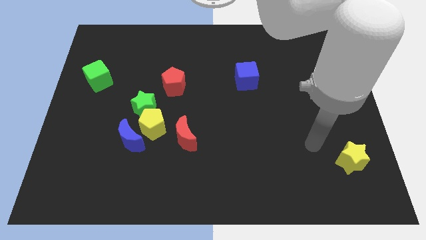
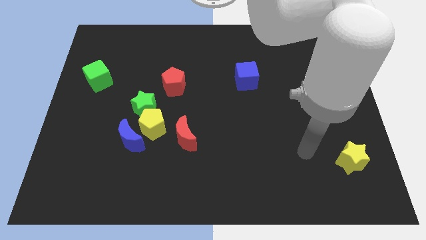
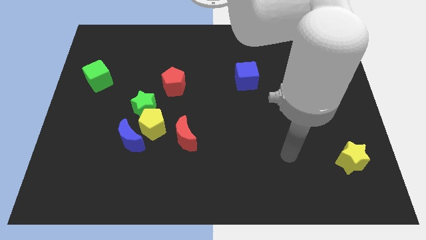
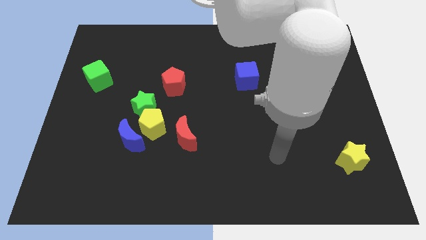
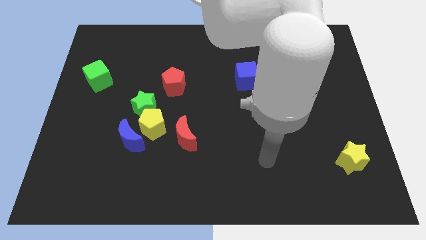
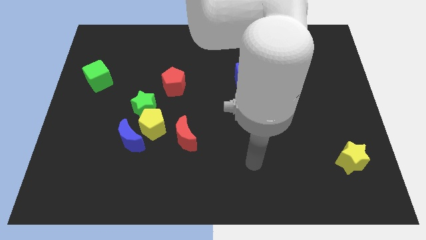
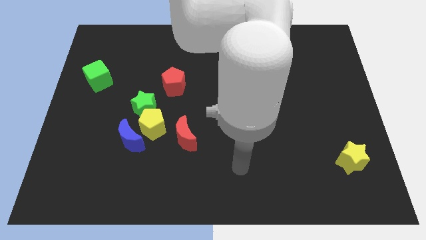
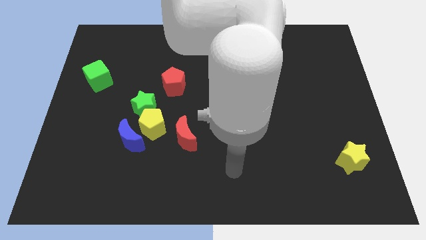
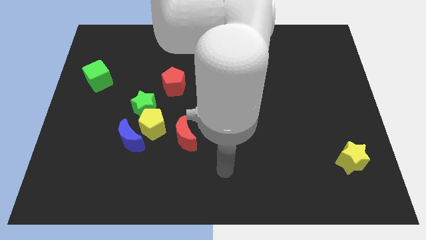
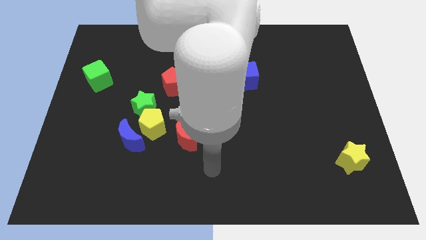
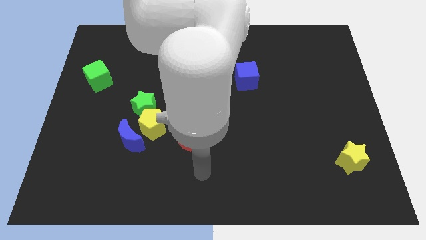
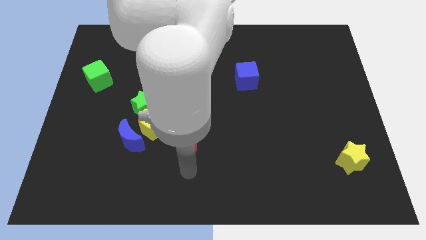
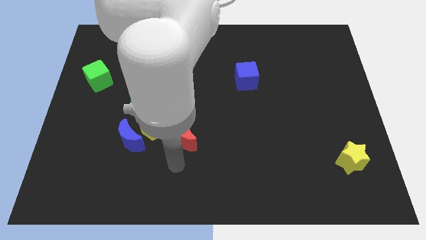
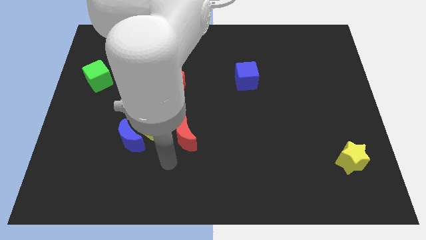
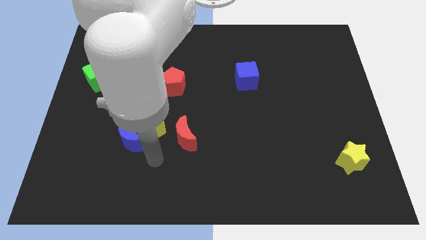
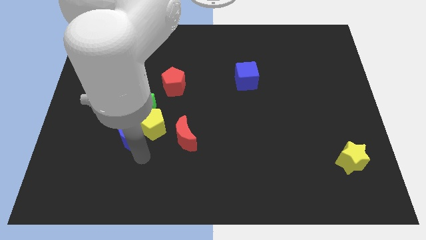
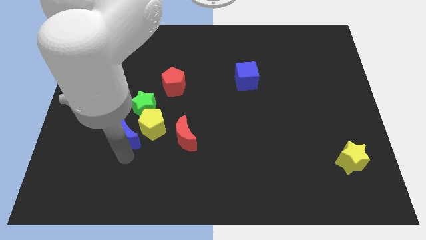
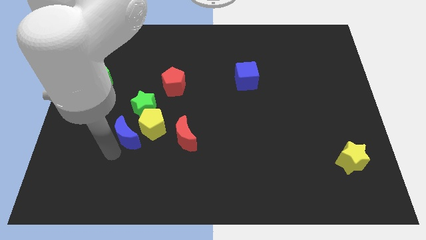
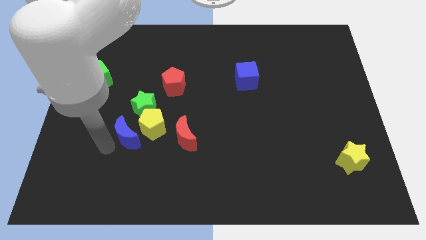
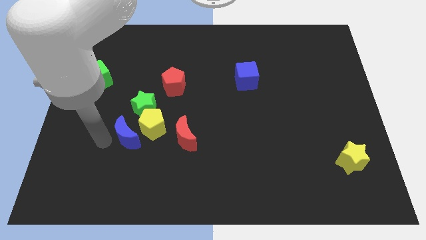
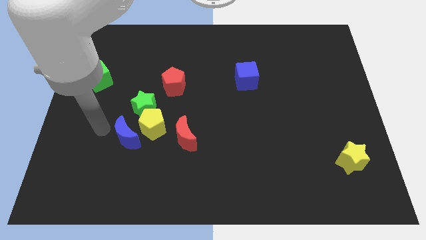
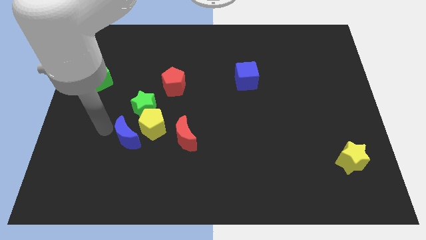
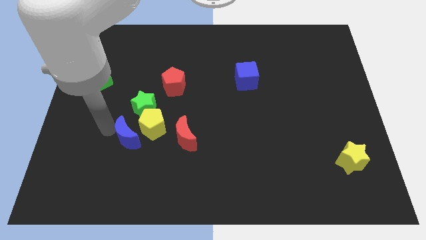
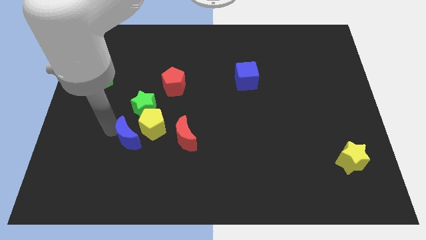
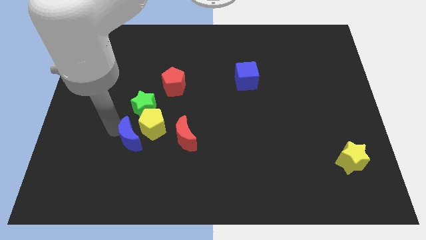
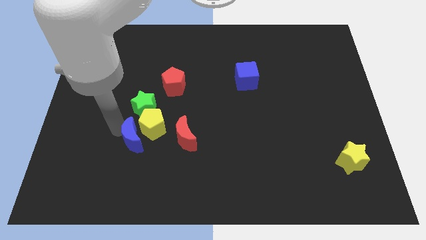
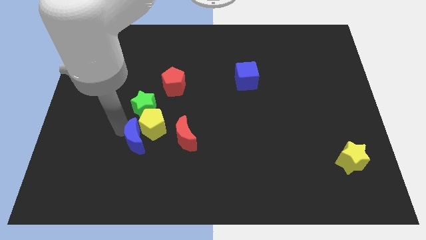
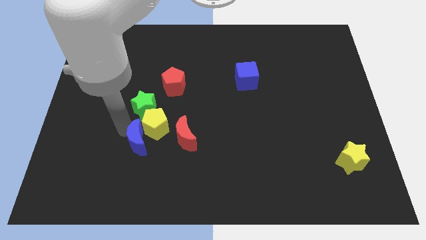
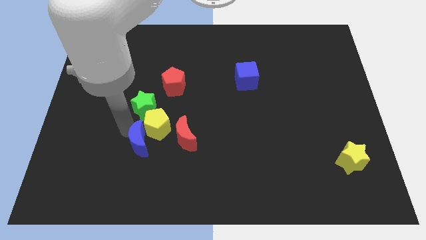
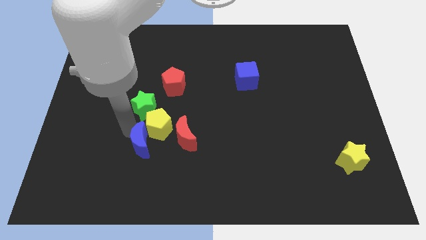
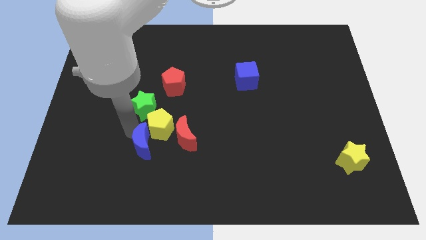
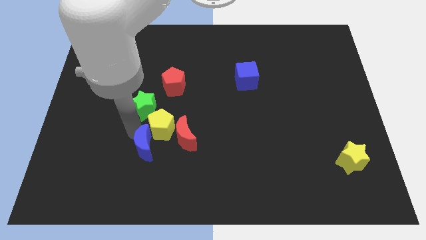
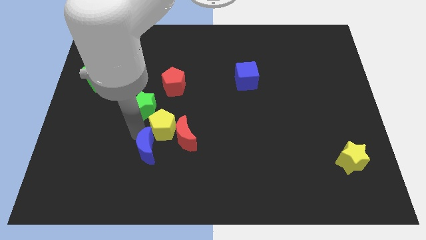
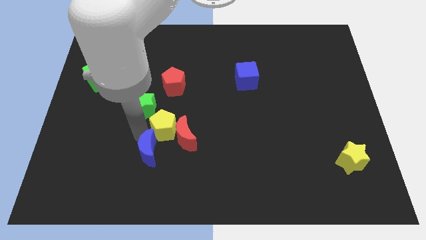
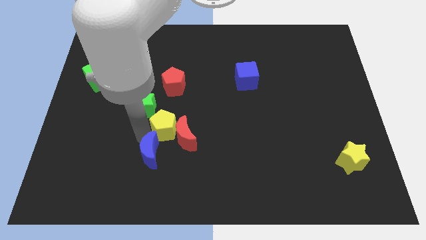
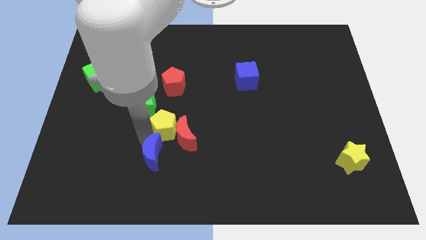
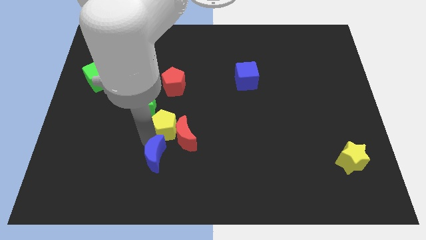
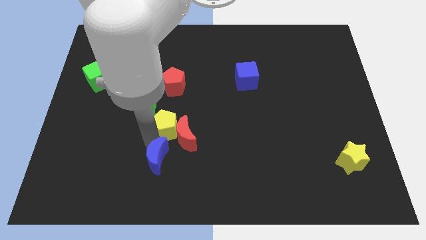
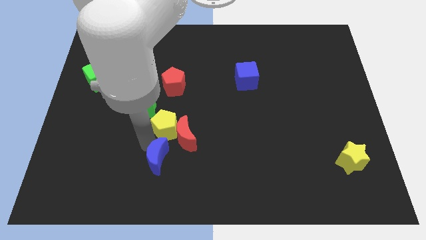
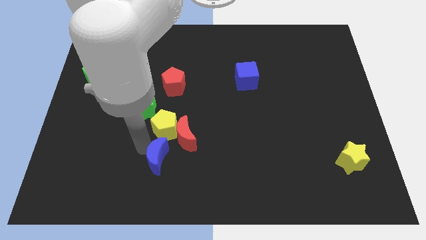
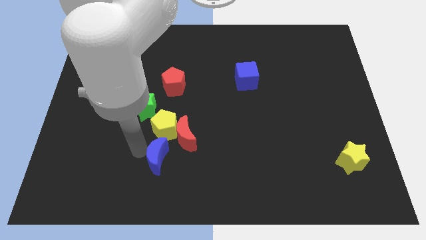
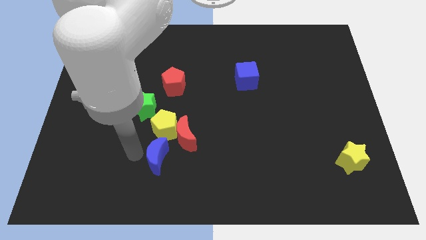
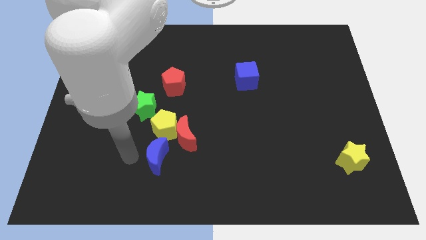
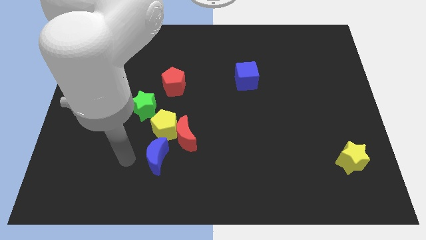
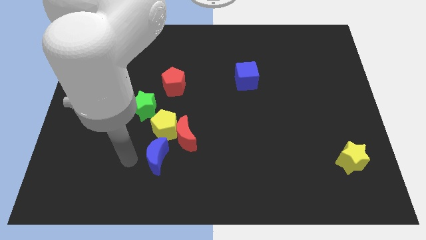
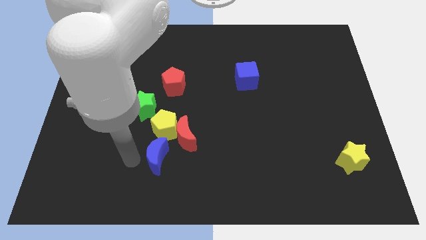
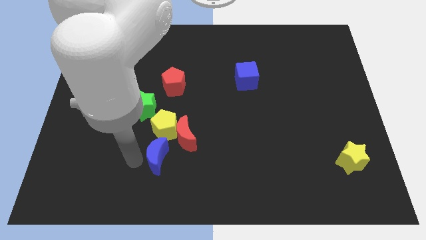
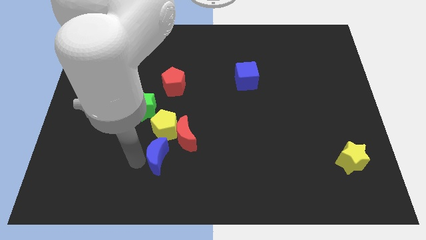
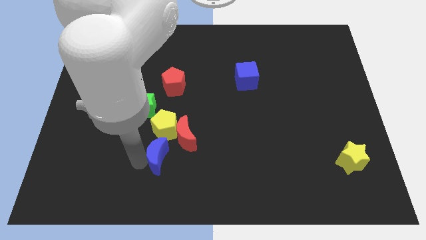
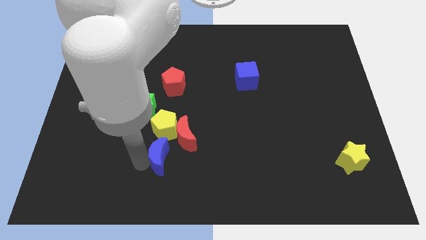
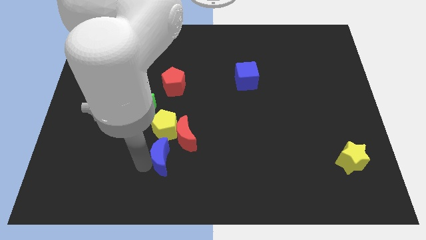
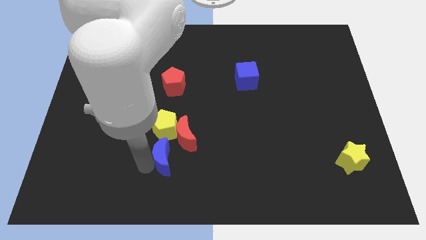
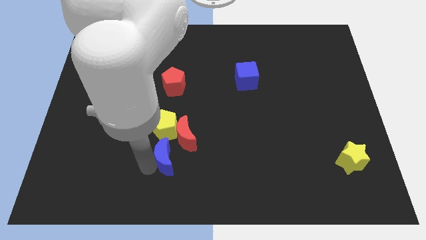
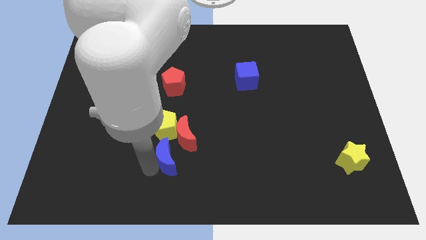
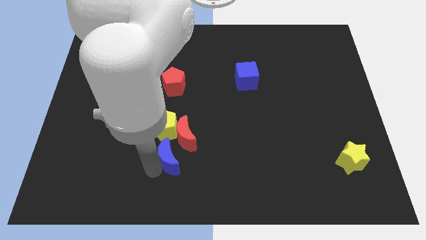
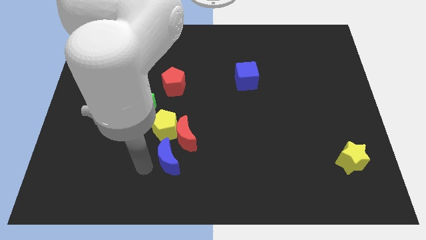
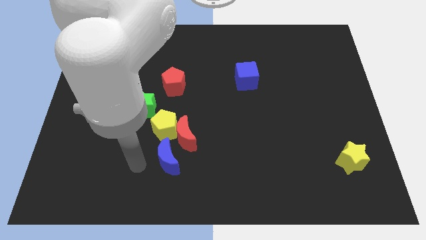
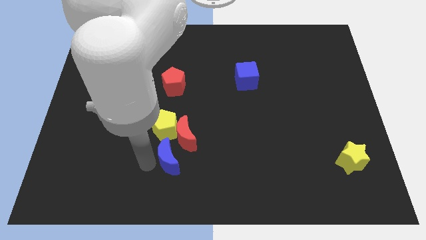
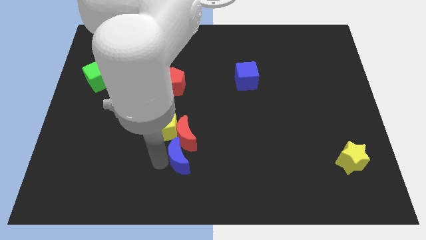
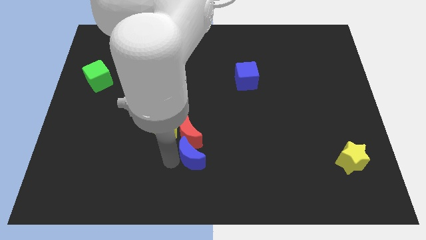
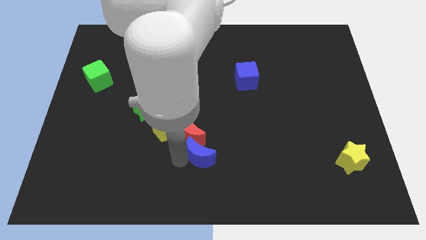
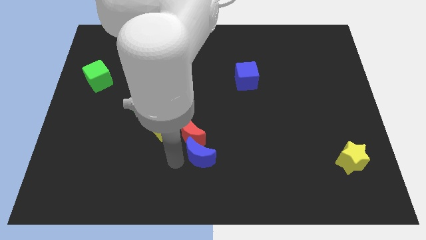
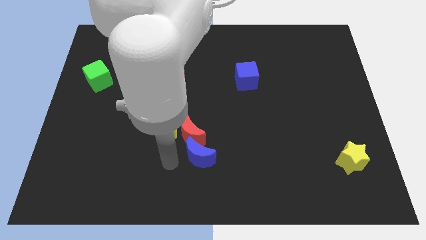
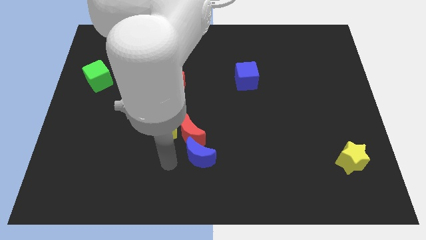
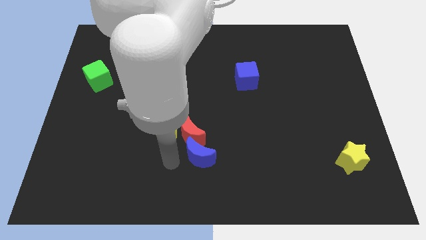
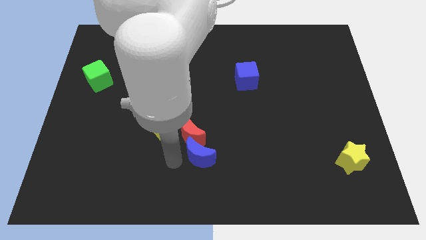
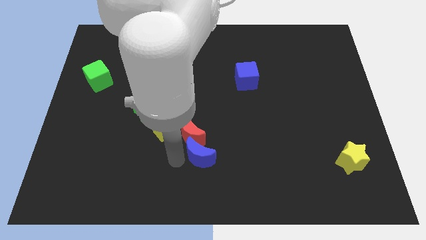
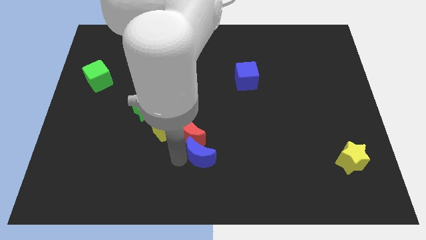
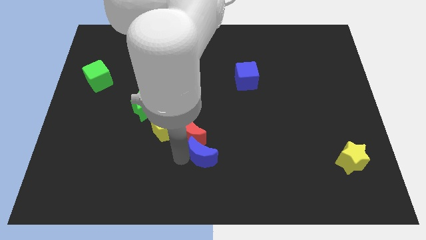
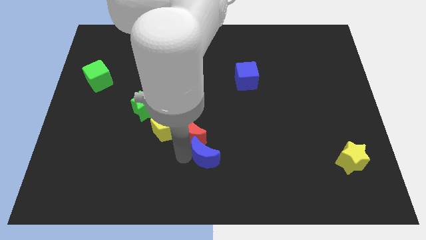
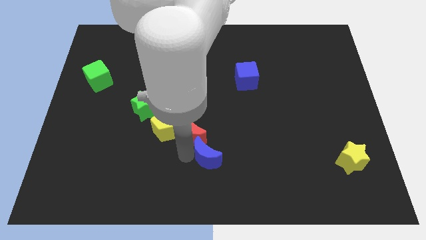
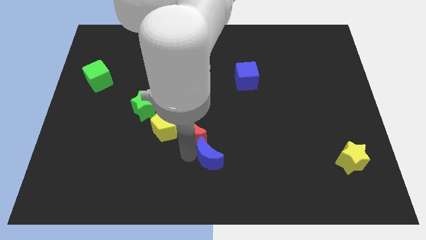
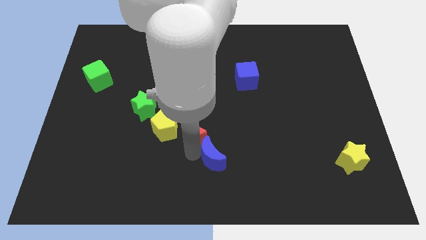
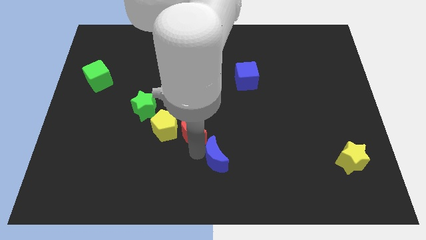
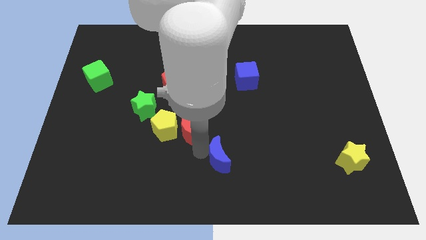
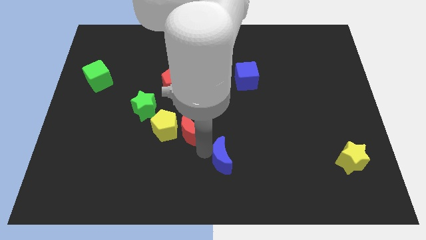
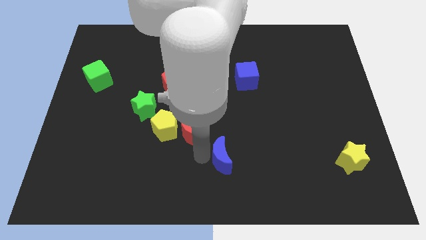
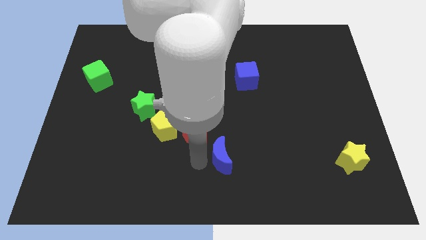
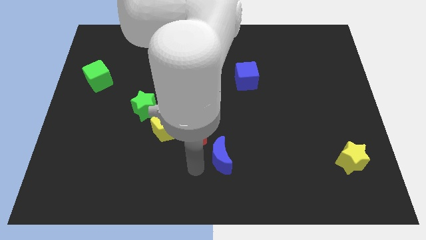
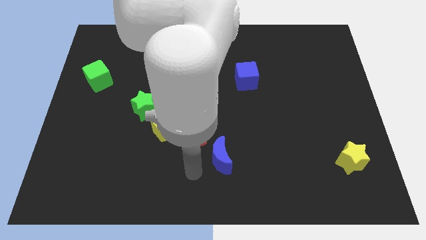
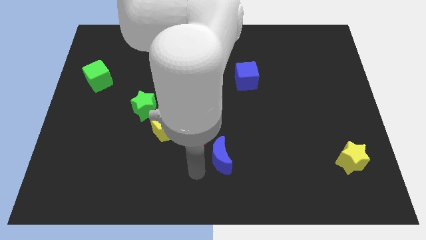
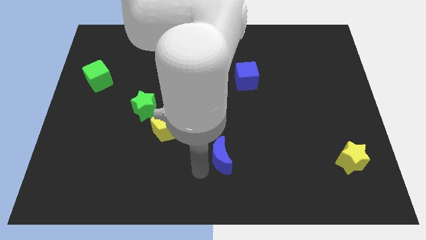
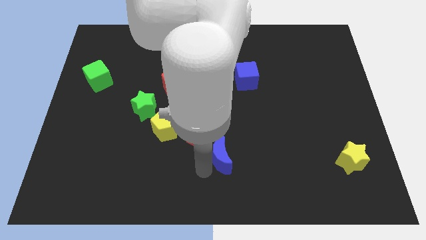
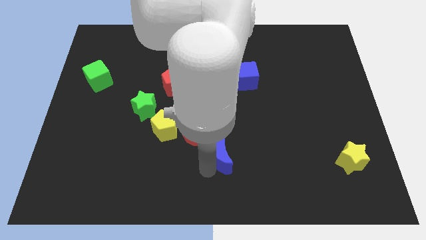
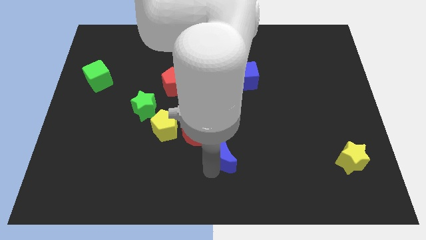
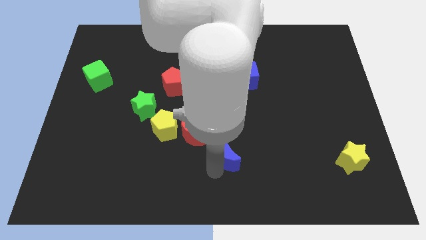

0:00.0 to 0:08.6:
slide the blue moon to the right
